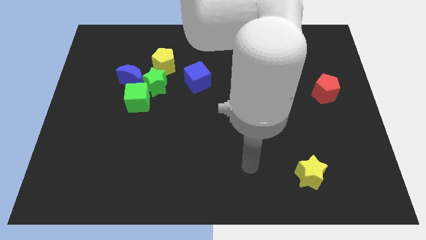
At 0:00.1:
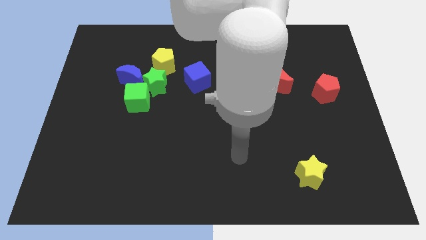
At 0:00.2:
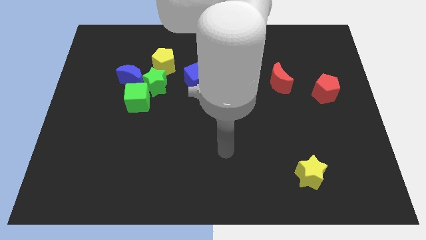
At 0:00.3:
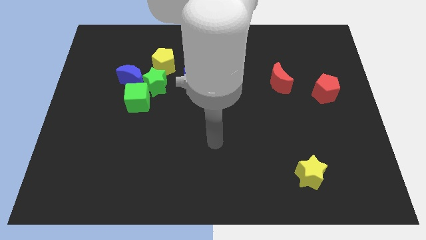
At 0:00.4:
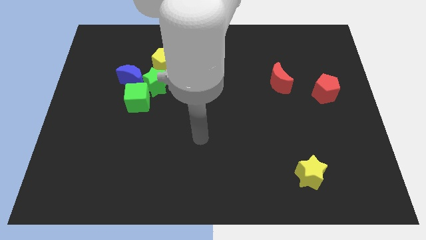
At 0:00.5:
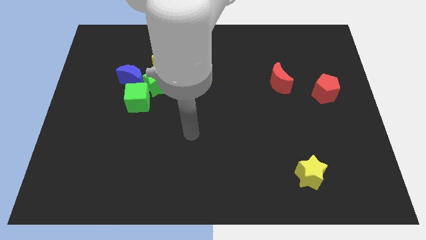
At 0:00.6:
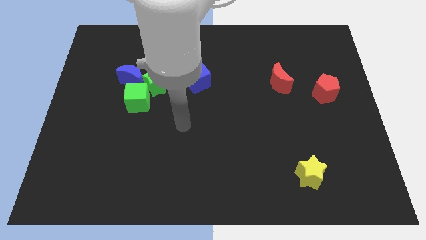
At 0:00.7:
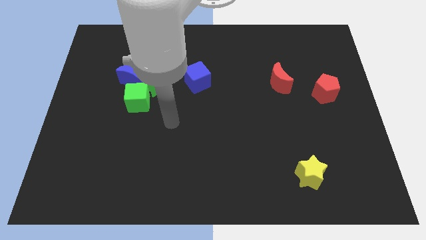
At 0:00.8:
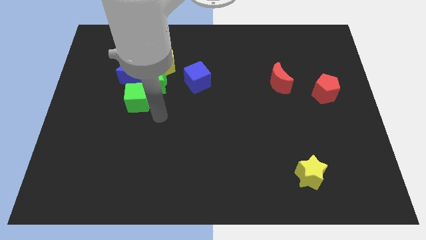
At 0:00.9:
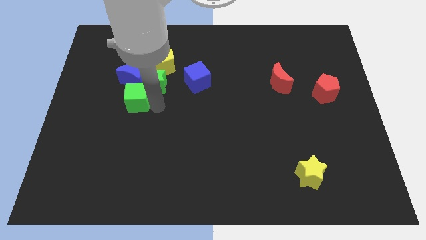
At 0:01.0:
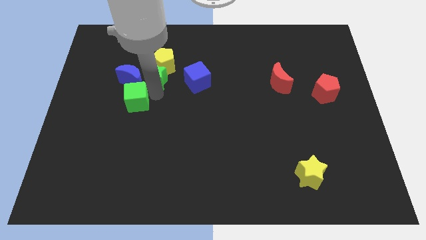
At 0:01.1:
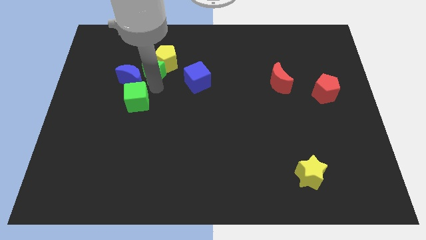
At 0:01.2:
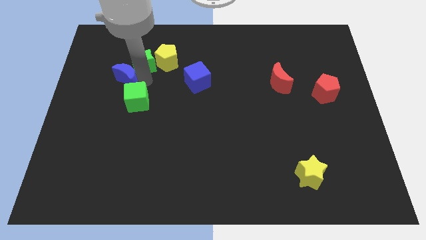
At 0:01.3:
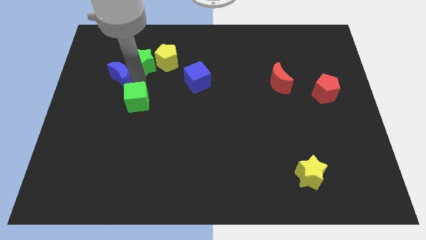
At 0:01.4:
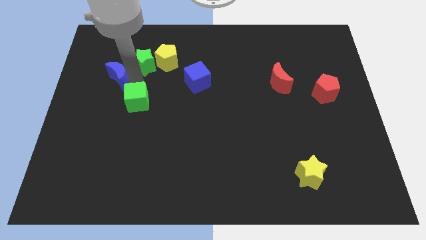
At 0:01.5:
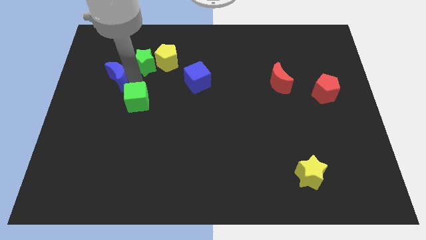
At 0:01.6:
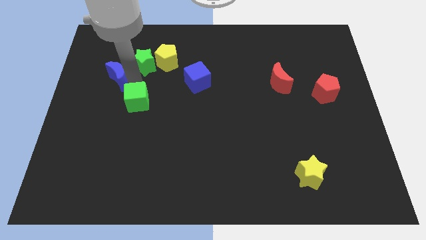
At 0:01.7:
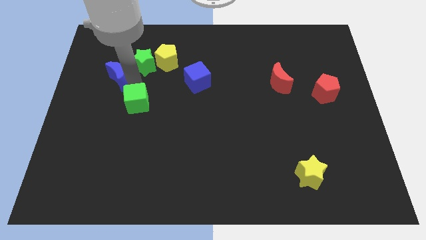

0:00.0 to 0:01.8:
move the green cube away from the green star and blue moon

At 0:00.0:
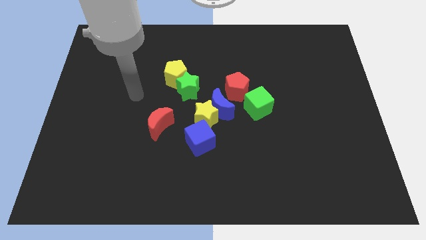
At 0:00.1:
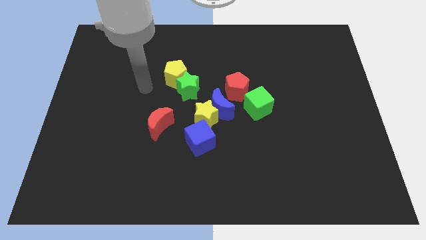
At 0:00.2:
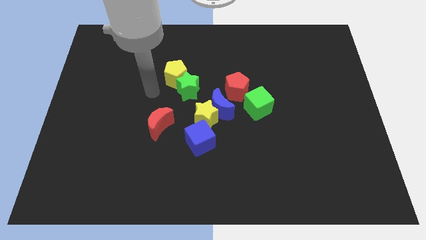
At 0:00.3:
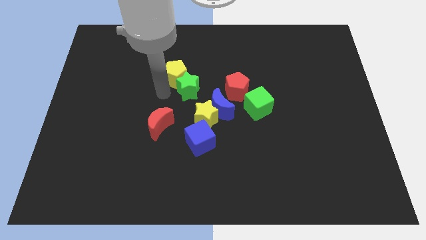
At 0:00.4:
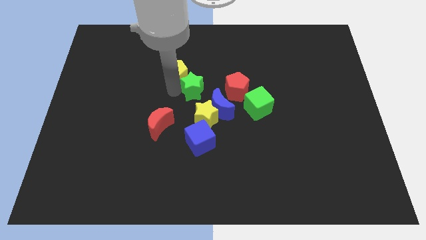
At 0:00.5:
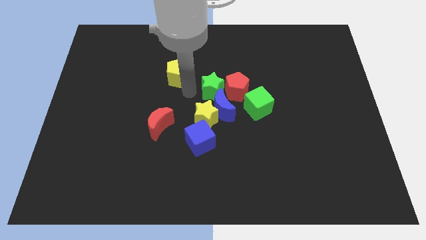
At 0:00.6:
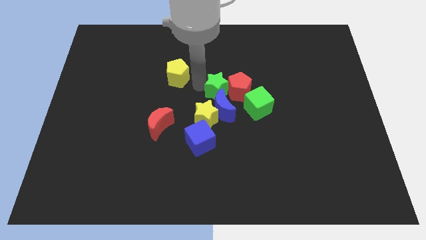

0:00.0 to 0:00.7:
pull the yellow pentagon apart from the green star

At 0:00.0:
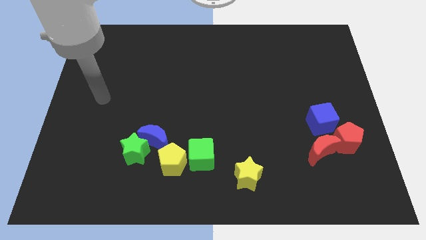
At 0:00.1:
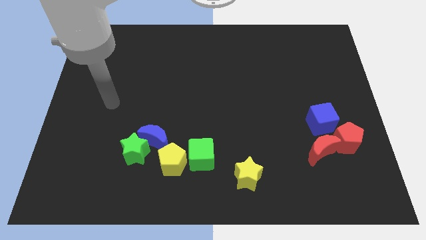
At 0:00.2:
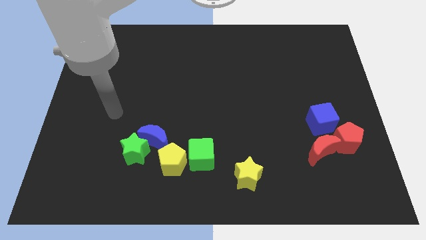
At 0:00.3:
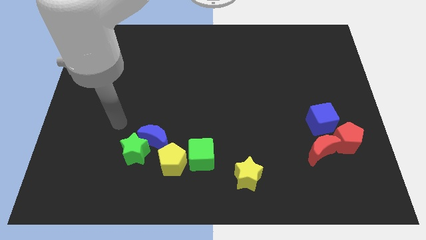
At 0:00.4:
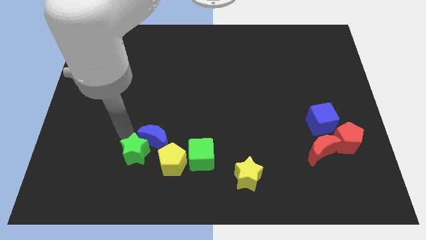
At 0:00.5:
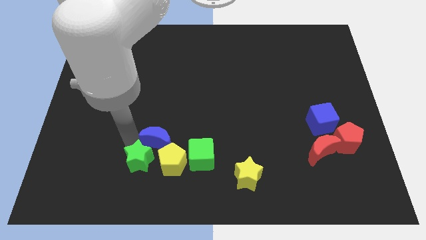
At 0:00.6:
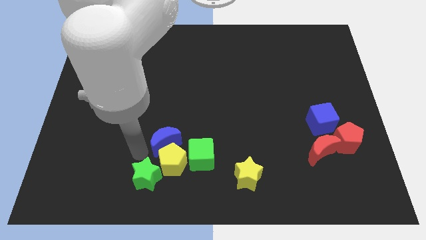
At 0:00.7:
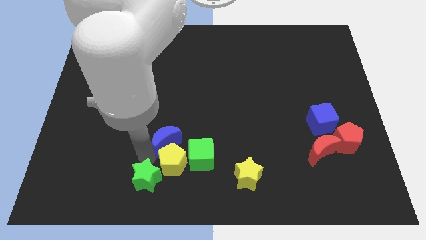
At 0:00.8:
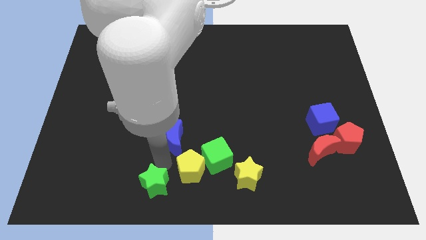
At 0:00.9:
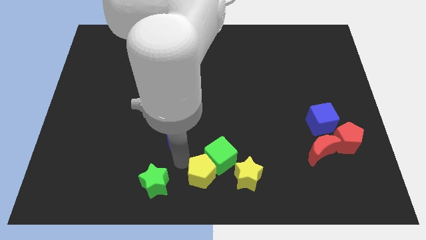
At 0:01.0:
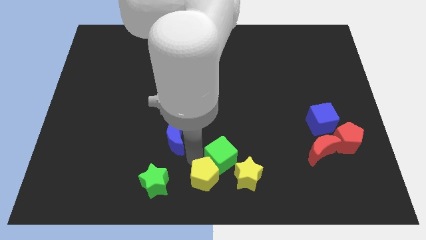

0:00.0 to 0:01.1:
move the blue moon away from the green star and yellow pentagon

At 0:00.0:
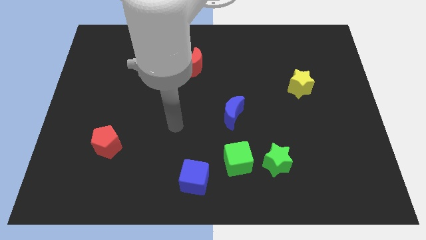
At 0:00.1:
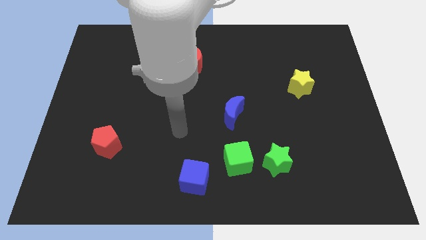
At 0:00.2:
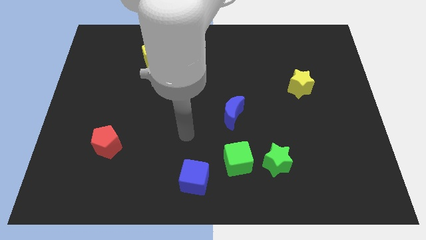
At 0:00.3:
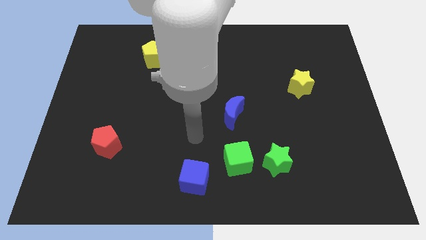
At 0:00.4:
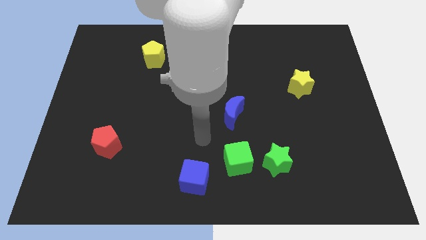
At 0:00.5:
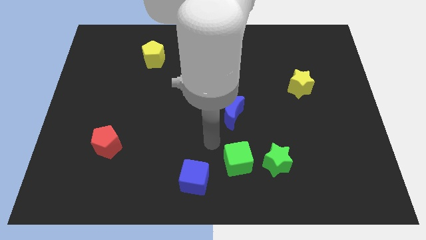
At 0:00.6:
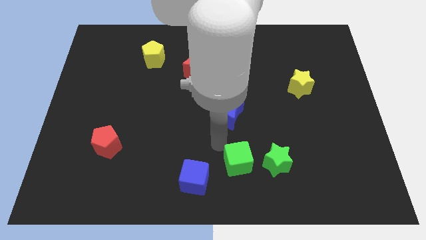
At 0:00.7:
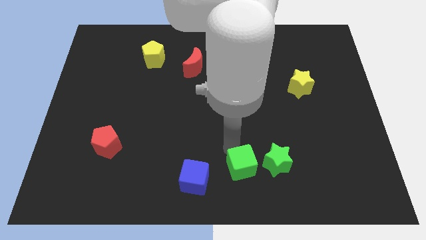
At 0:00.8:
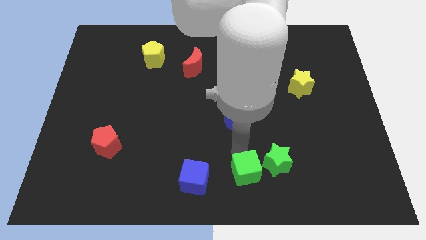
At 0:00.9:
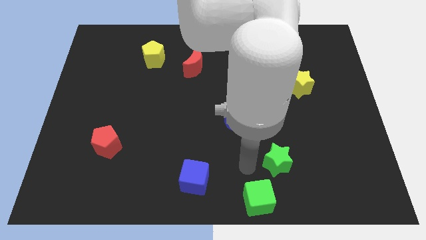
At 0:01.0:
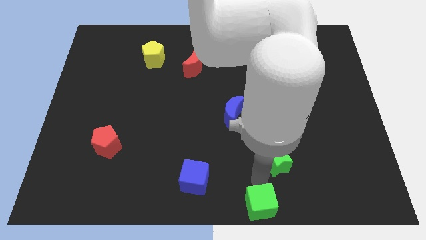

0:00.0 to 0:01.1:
pull the green star apart from the green cube

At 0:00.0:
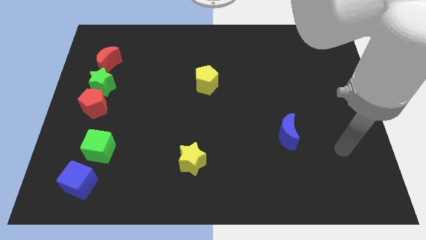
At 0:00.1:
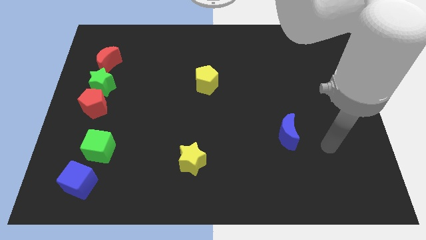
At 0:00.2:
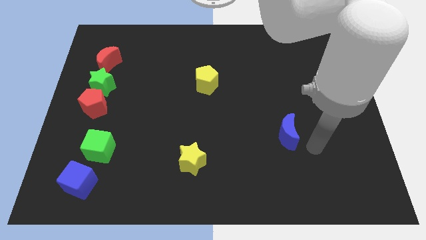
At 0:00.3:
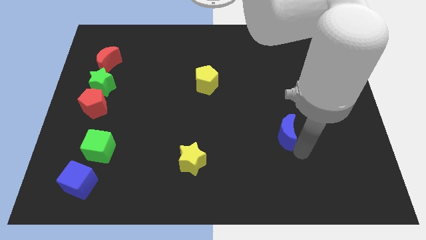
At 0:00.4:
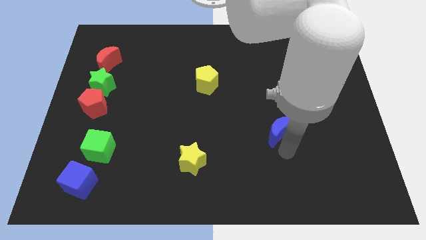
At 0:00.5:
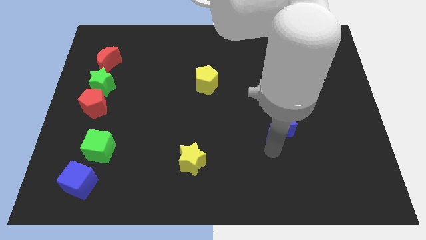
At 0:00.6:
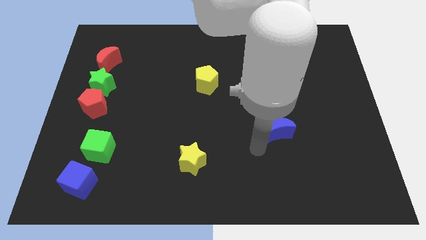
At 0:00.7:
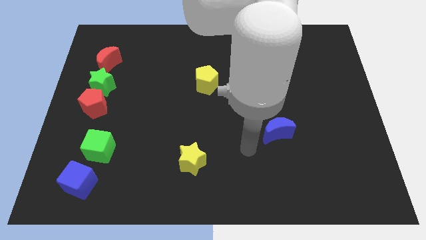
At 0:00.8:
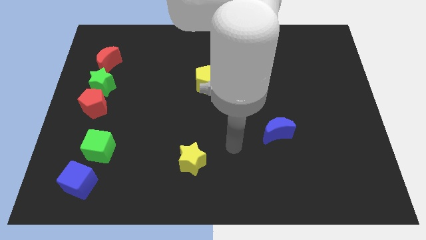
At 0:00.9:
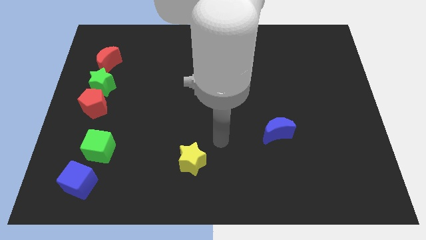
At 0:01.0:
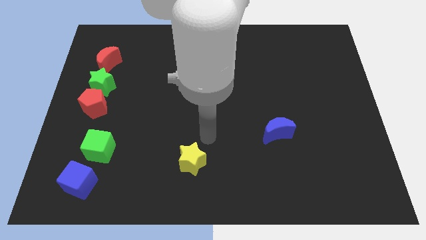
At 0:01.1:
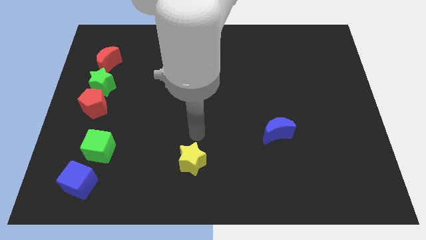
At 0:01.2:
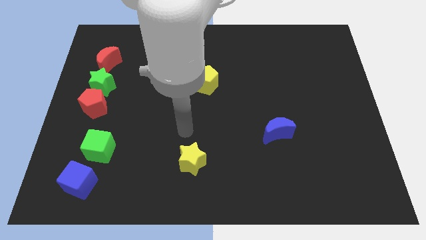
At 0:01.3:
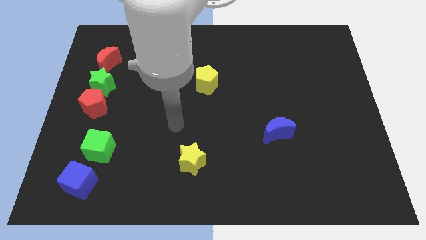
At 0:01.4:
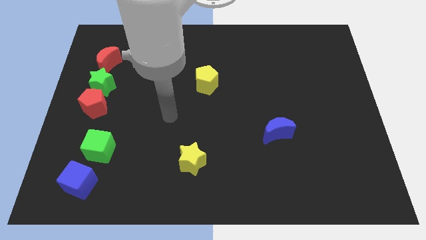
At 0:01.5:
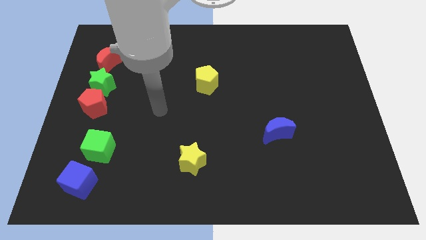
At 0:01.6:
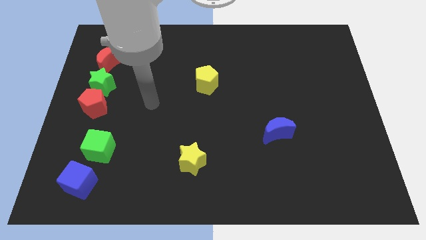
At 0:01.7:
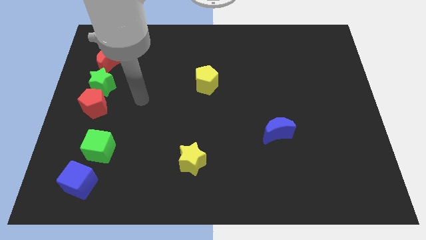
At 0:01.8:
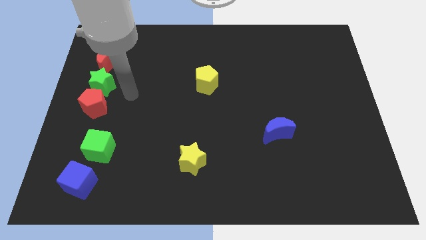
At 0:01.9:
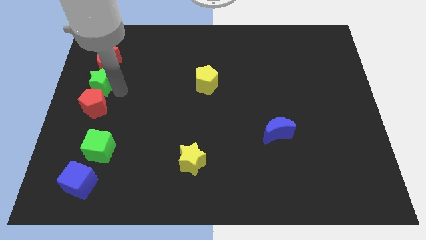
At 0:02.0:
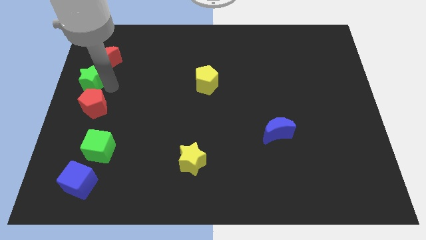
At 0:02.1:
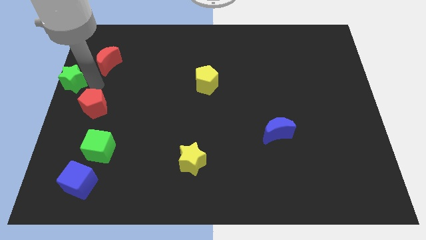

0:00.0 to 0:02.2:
pull the red pentagon apart from the green star

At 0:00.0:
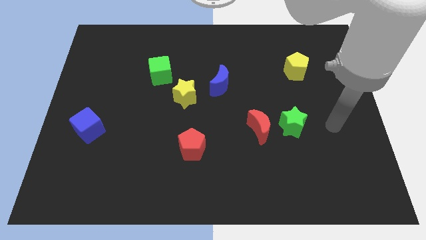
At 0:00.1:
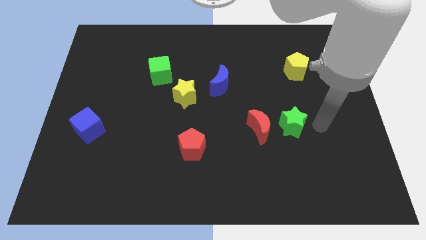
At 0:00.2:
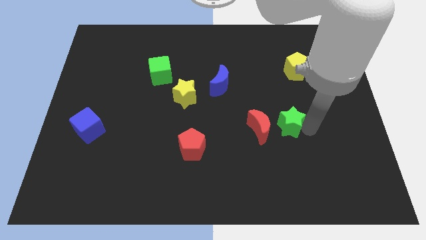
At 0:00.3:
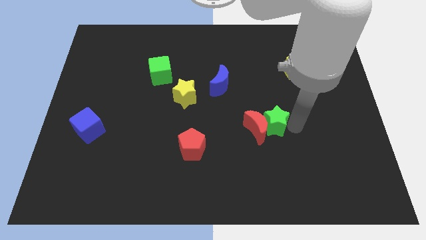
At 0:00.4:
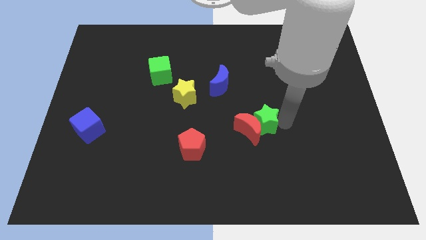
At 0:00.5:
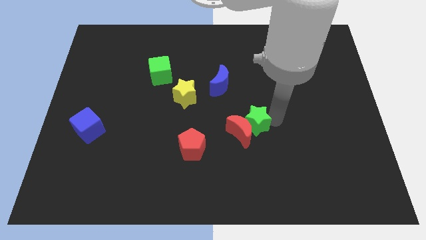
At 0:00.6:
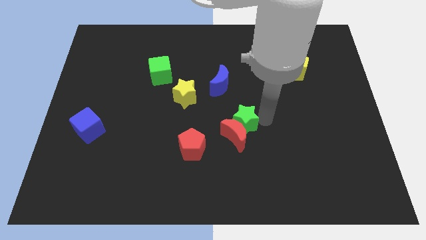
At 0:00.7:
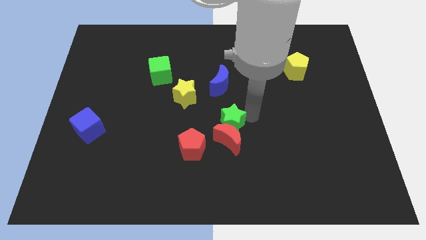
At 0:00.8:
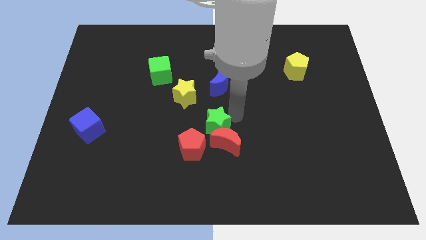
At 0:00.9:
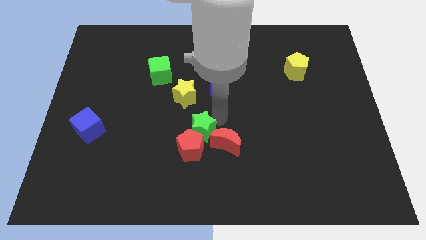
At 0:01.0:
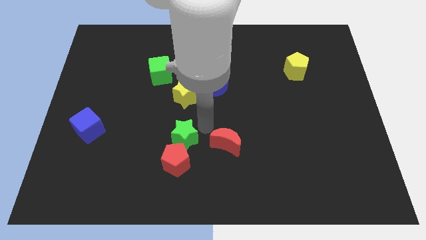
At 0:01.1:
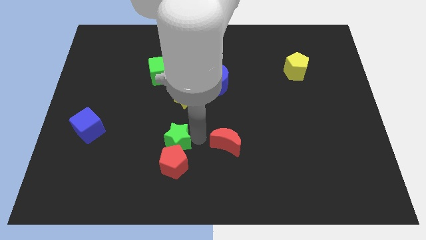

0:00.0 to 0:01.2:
move the red moon away from the green star

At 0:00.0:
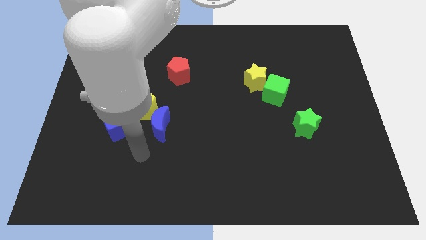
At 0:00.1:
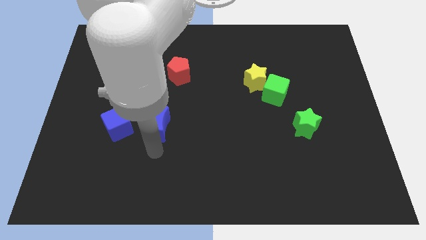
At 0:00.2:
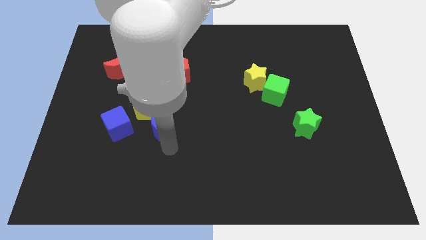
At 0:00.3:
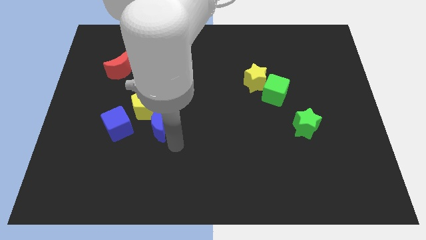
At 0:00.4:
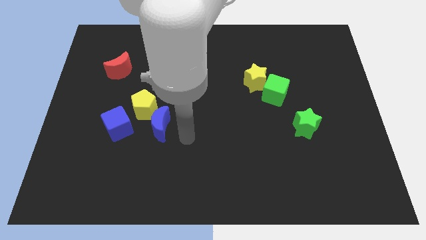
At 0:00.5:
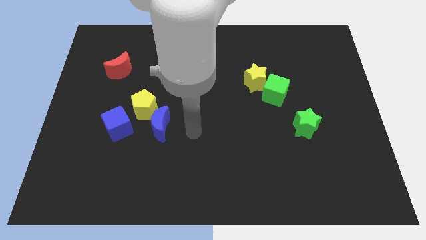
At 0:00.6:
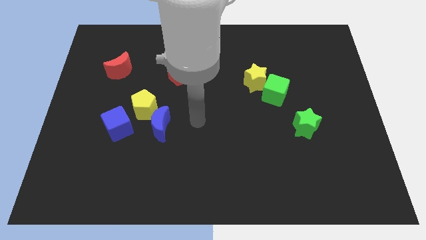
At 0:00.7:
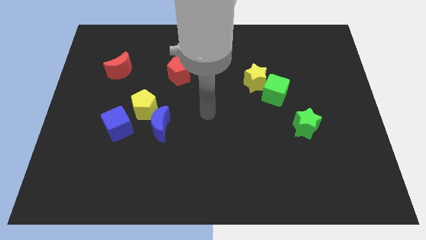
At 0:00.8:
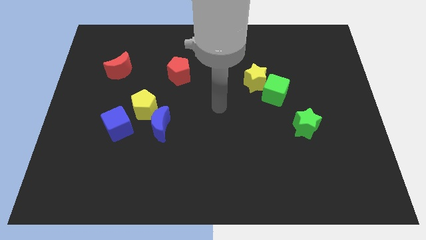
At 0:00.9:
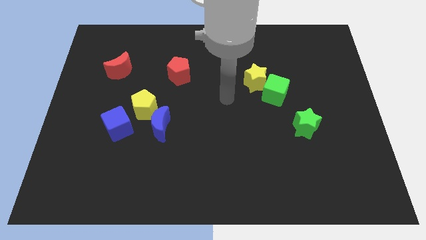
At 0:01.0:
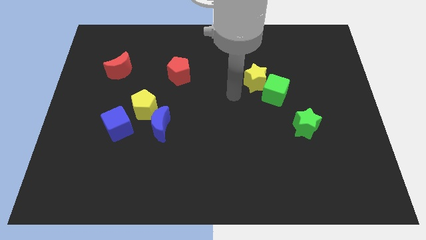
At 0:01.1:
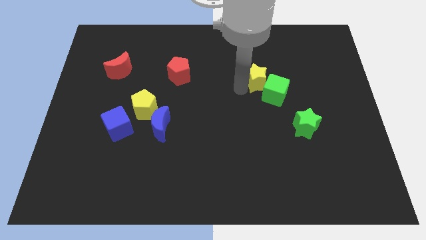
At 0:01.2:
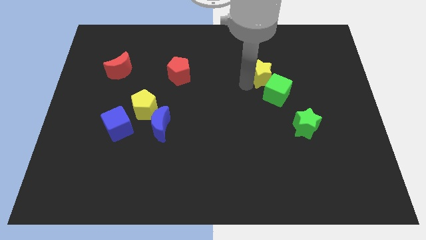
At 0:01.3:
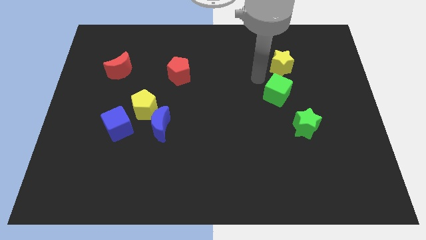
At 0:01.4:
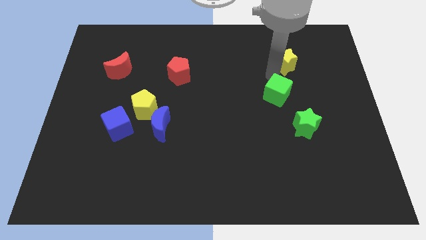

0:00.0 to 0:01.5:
separate the green cube from the yellow star
